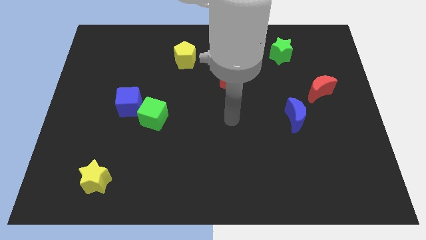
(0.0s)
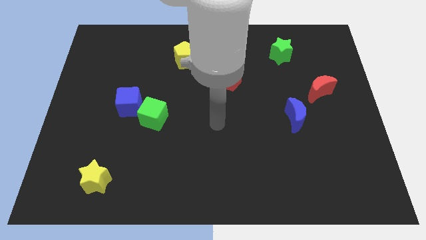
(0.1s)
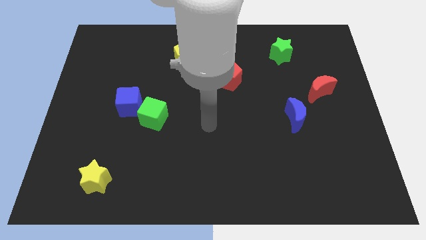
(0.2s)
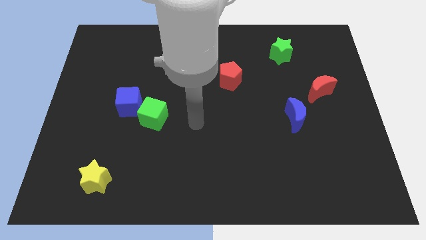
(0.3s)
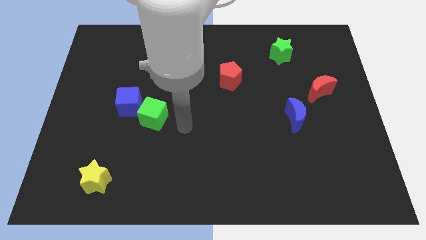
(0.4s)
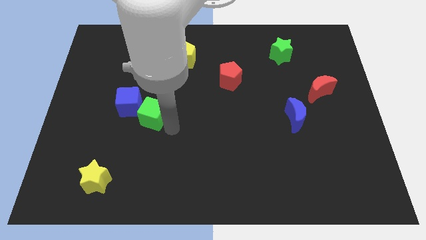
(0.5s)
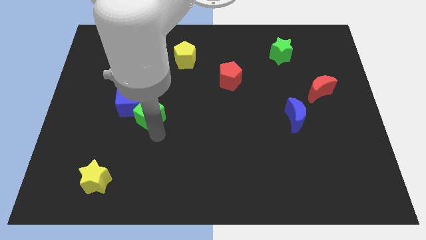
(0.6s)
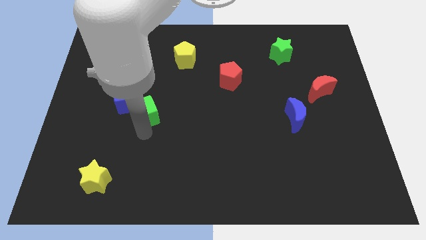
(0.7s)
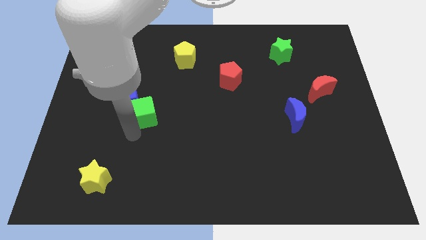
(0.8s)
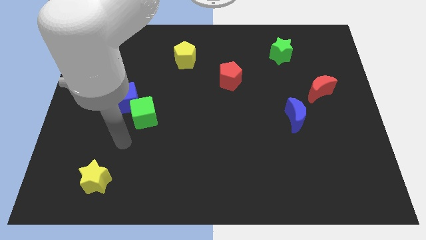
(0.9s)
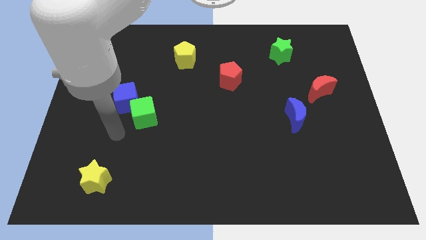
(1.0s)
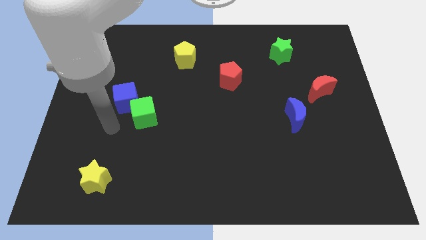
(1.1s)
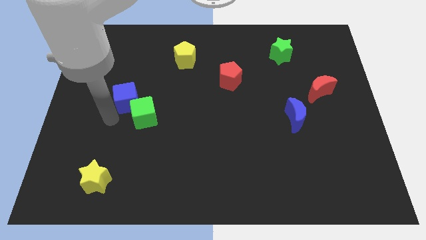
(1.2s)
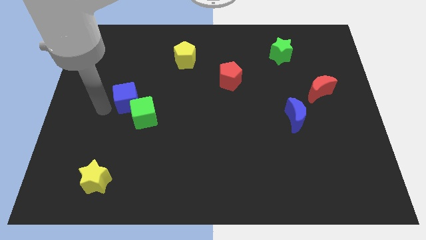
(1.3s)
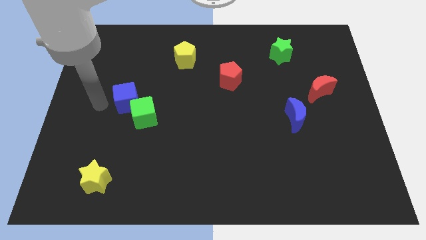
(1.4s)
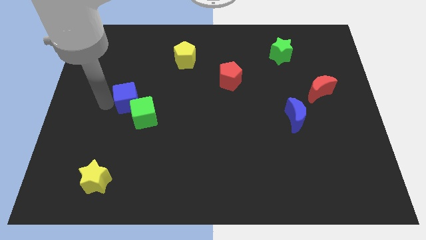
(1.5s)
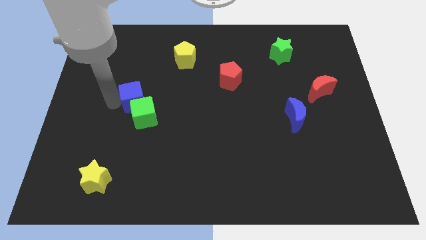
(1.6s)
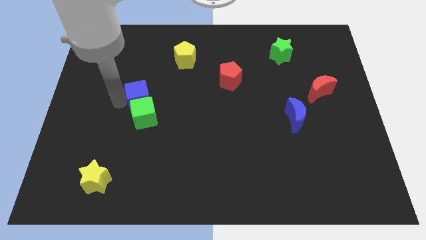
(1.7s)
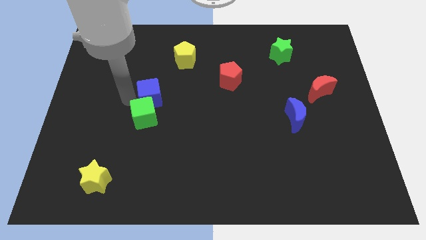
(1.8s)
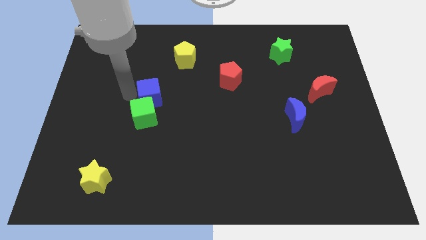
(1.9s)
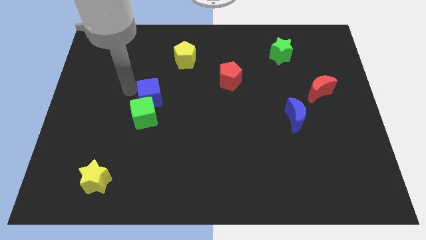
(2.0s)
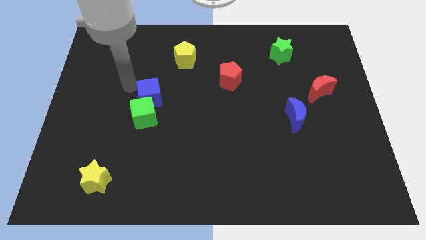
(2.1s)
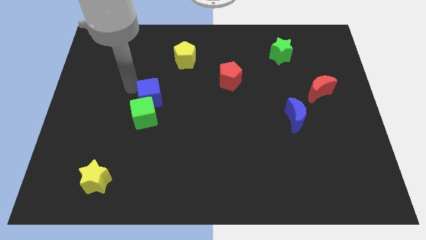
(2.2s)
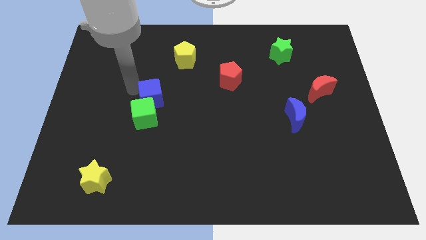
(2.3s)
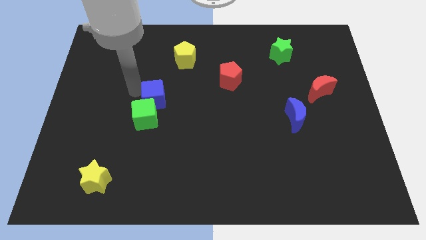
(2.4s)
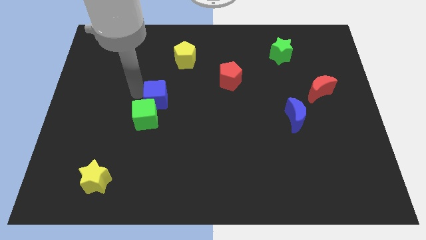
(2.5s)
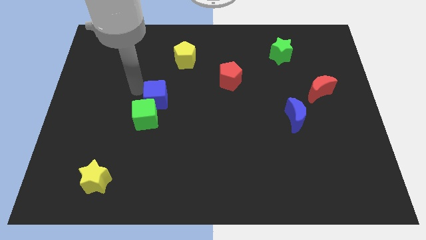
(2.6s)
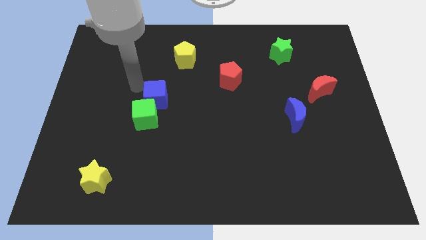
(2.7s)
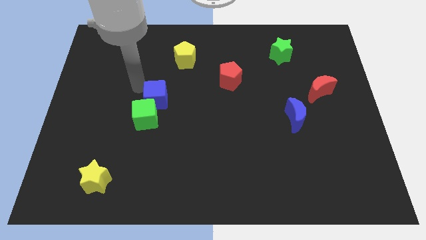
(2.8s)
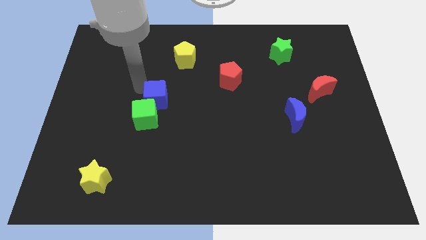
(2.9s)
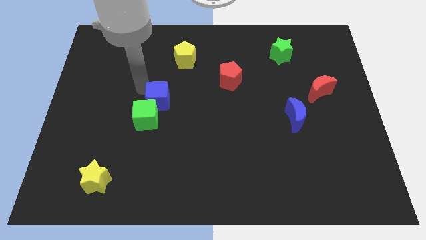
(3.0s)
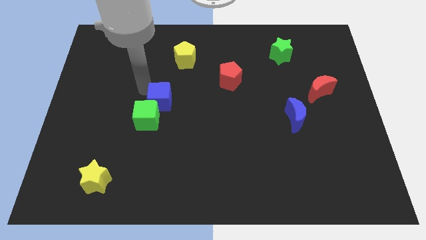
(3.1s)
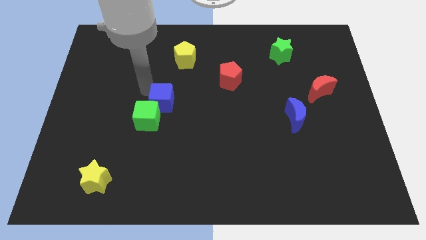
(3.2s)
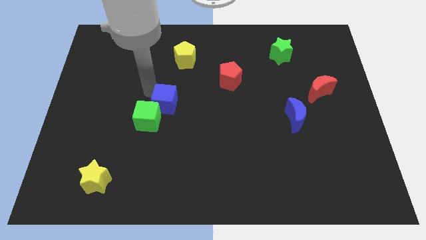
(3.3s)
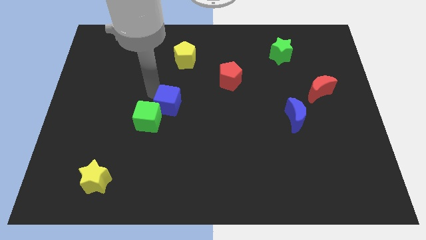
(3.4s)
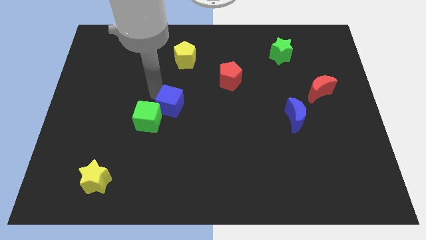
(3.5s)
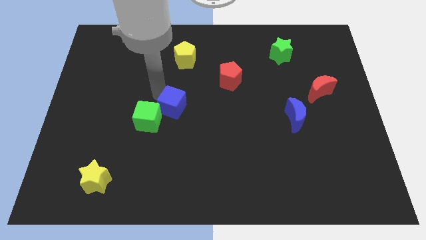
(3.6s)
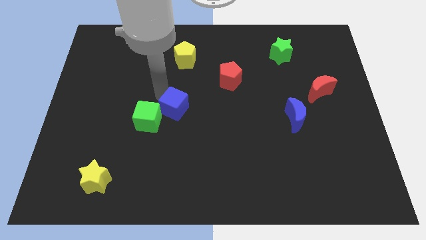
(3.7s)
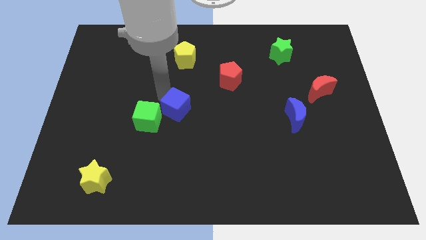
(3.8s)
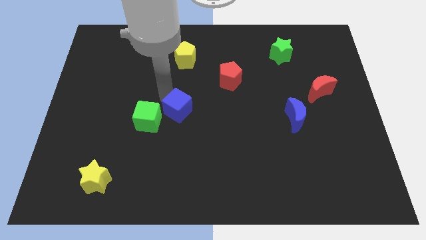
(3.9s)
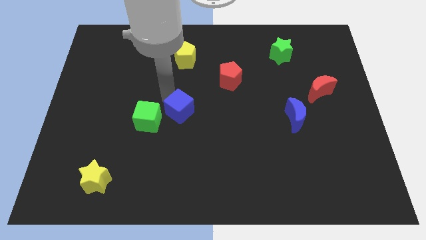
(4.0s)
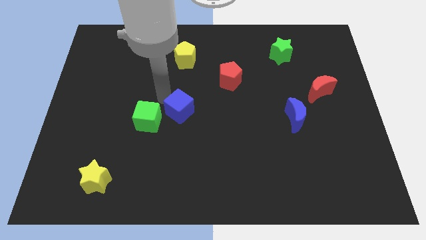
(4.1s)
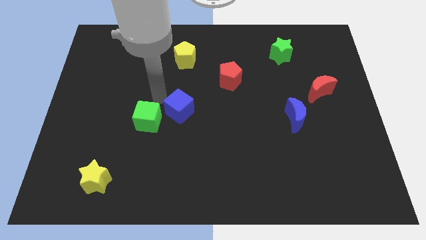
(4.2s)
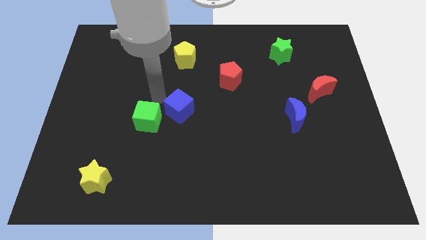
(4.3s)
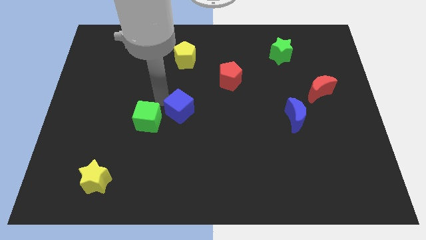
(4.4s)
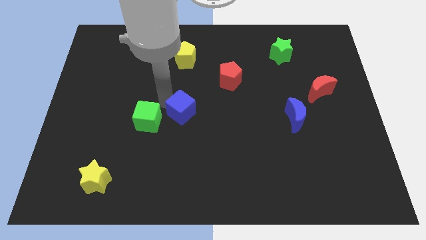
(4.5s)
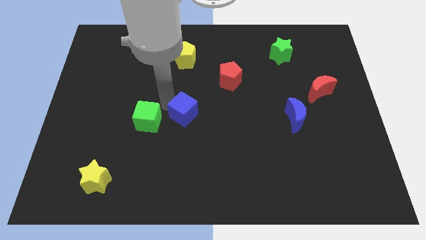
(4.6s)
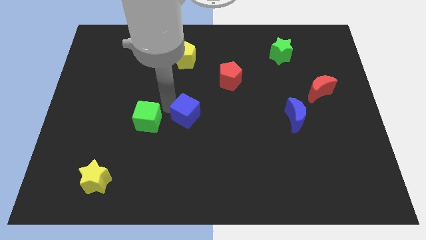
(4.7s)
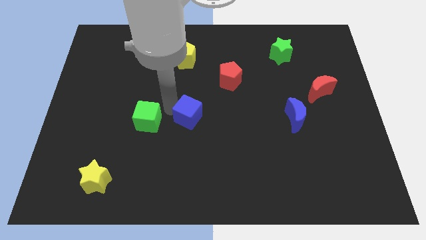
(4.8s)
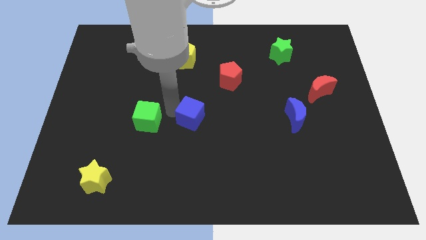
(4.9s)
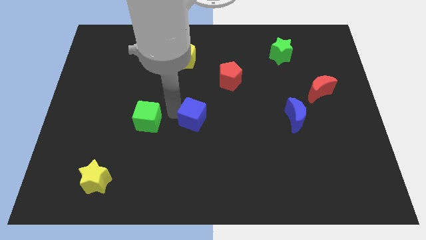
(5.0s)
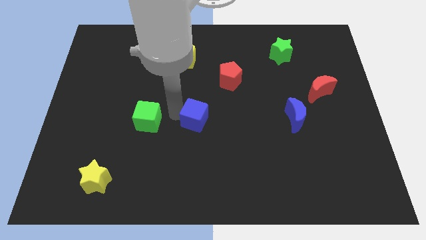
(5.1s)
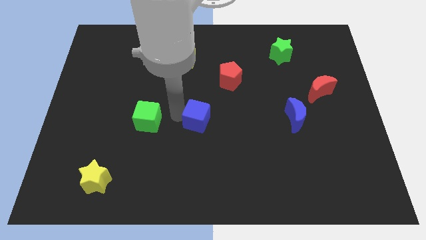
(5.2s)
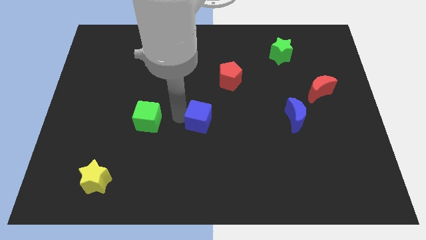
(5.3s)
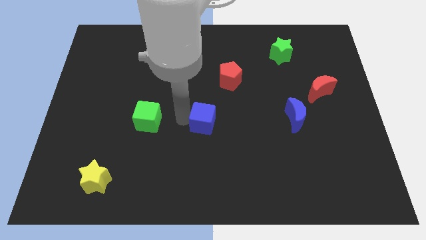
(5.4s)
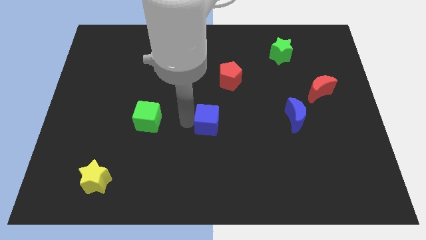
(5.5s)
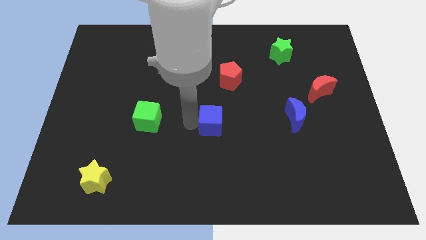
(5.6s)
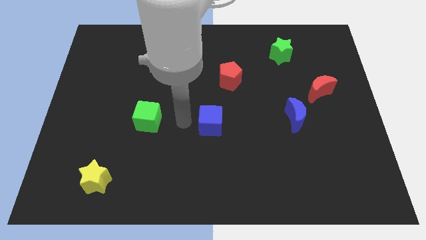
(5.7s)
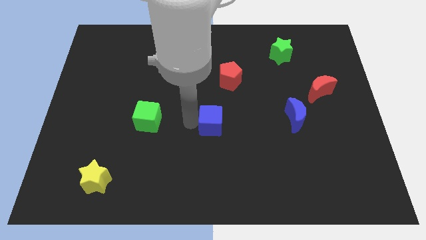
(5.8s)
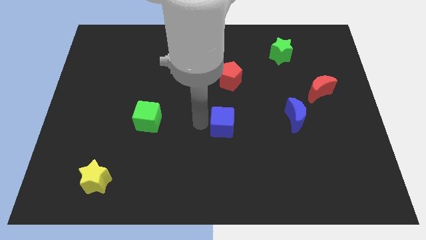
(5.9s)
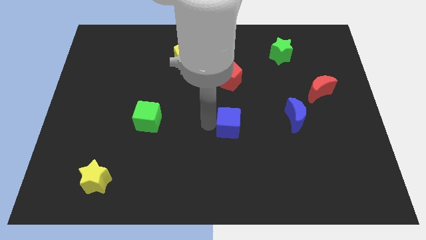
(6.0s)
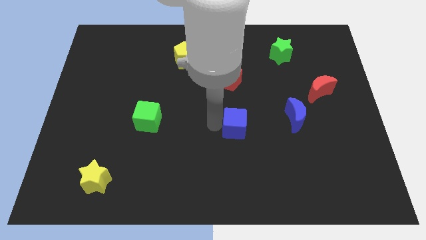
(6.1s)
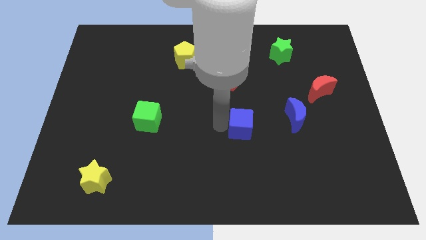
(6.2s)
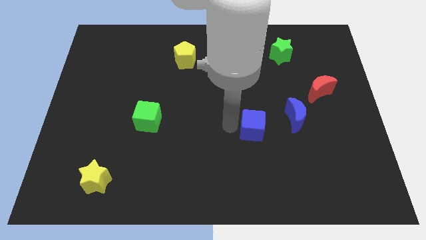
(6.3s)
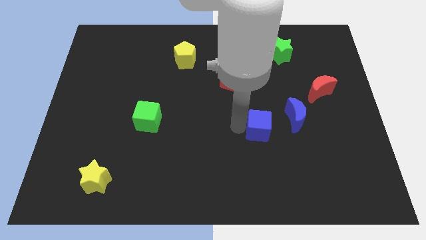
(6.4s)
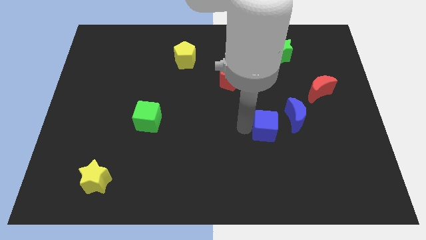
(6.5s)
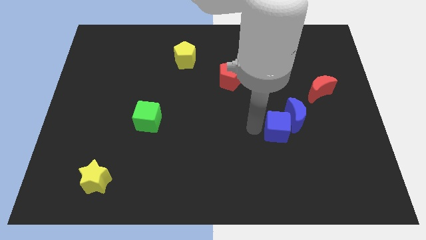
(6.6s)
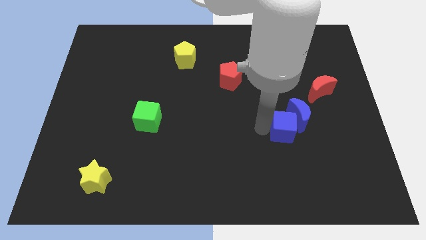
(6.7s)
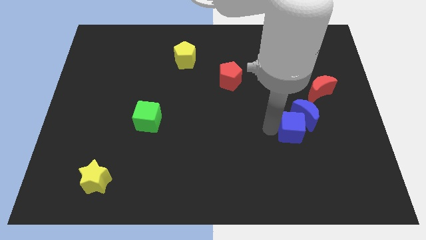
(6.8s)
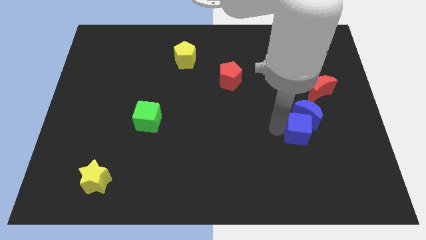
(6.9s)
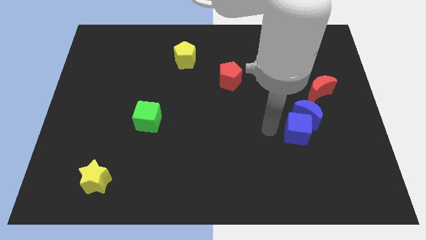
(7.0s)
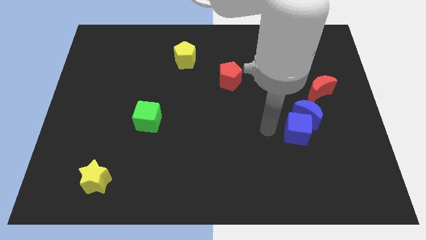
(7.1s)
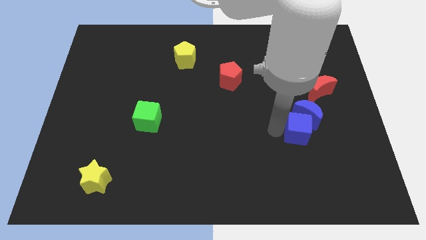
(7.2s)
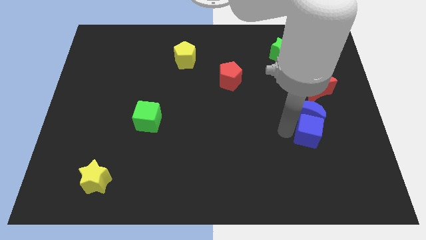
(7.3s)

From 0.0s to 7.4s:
push the blue cube to the bottom right side of the blue moon

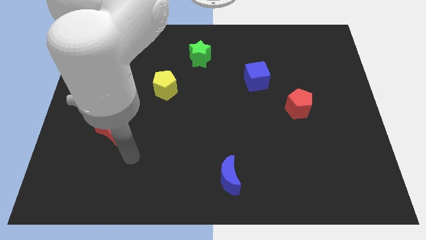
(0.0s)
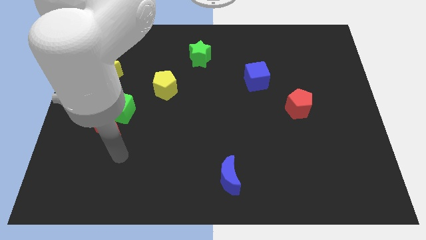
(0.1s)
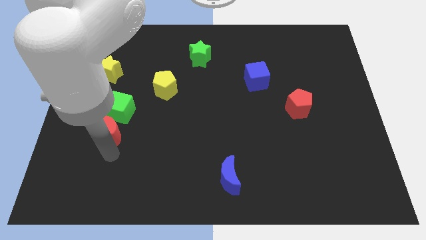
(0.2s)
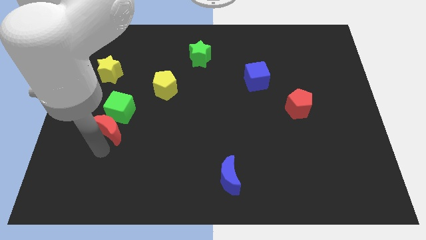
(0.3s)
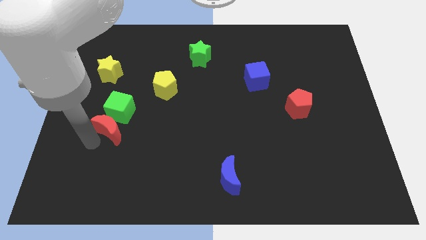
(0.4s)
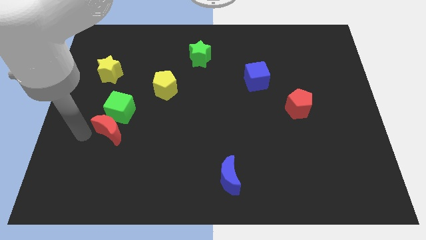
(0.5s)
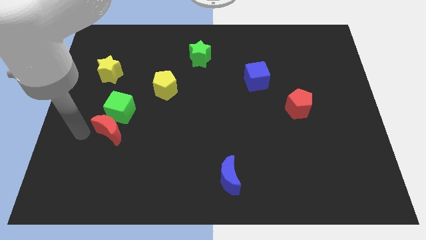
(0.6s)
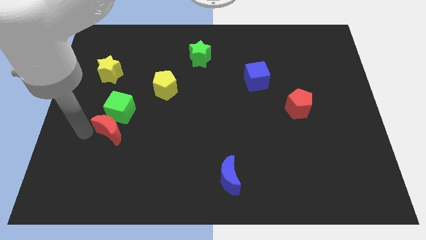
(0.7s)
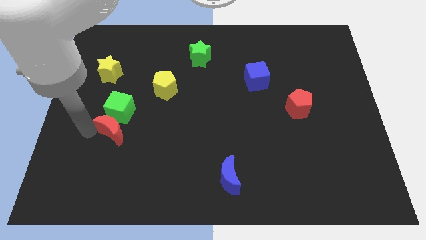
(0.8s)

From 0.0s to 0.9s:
put the red moon to the bottom right side of the green cube
